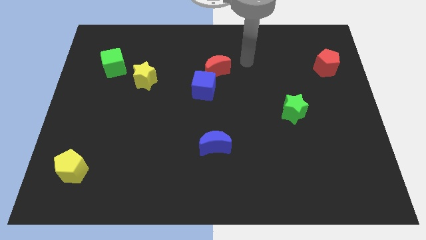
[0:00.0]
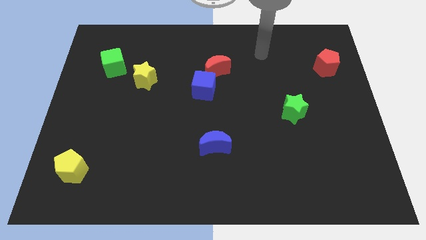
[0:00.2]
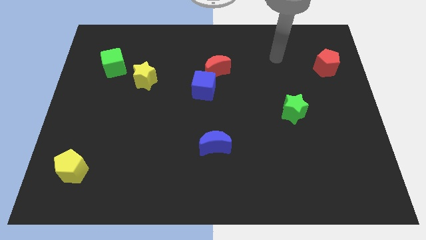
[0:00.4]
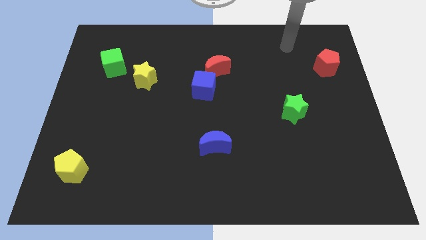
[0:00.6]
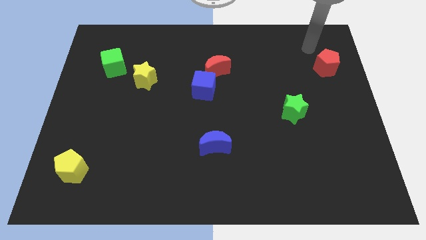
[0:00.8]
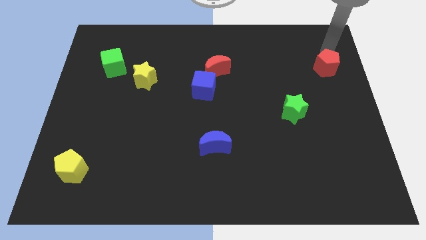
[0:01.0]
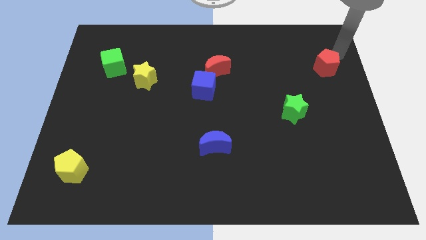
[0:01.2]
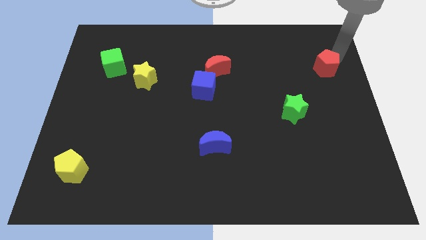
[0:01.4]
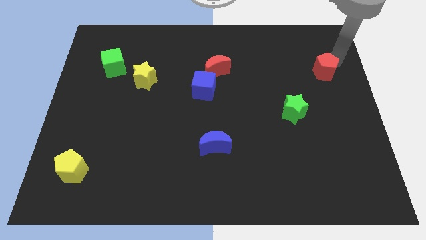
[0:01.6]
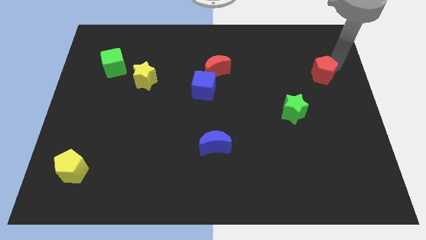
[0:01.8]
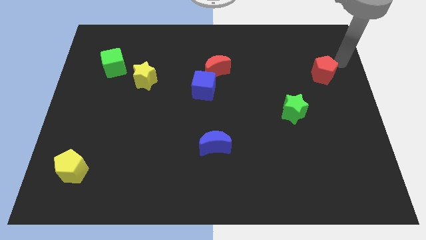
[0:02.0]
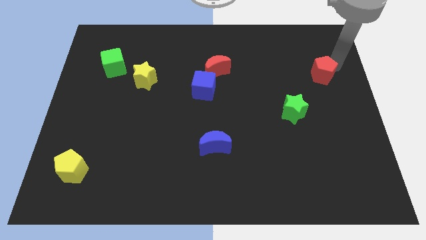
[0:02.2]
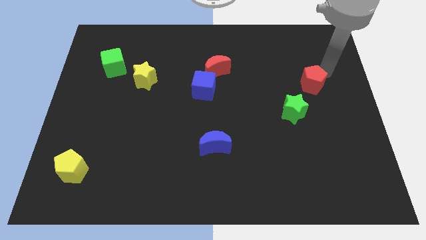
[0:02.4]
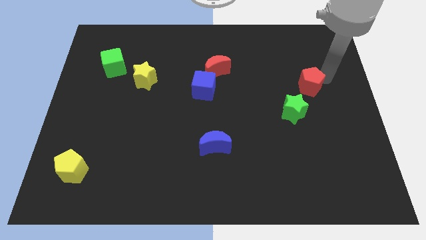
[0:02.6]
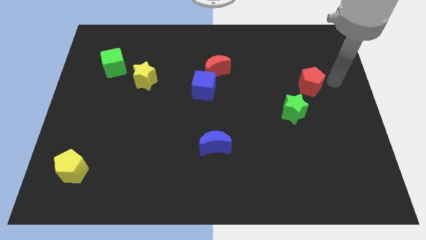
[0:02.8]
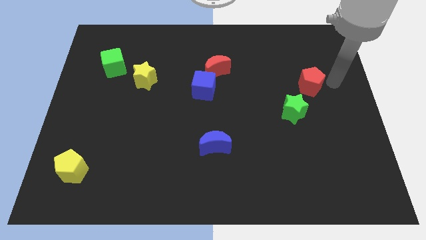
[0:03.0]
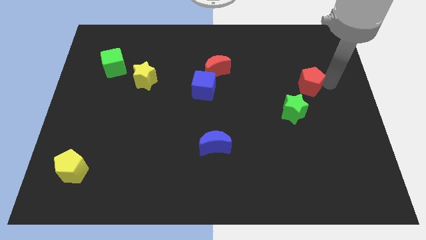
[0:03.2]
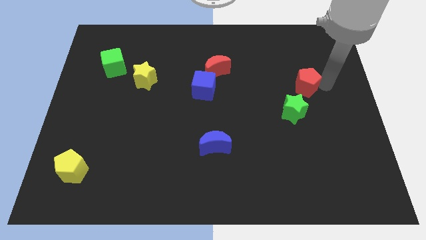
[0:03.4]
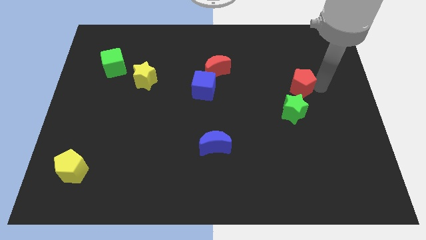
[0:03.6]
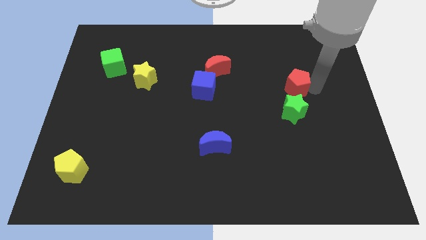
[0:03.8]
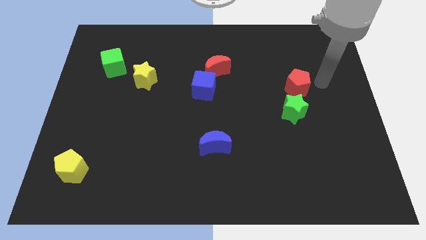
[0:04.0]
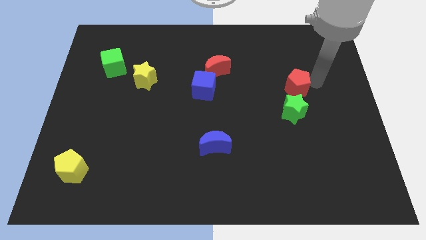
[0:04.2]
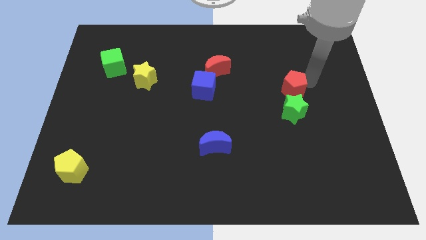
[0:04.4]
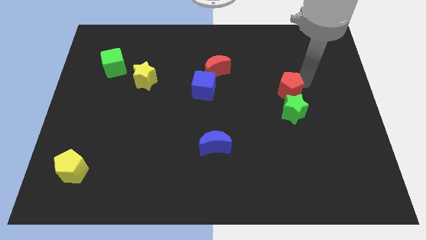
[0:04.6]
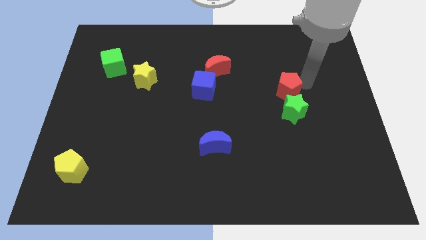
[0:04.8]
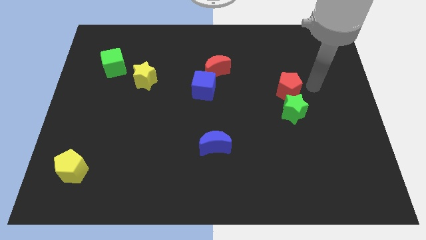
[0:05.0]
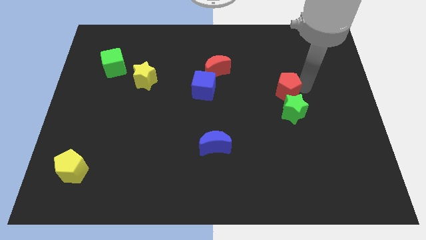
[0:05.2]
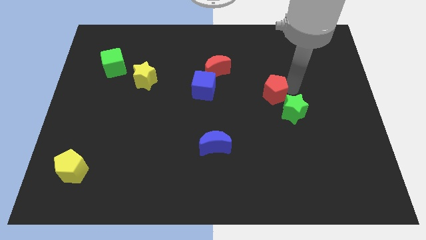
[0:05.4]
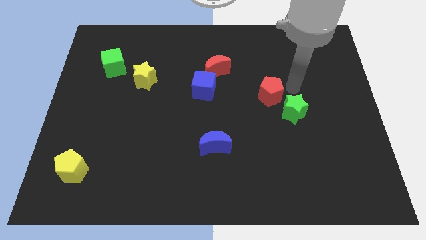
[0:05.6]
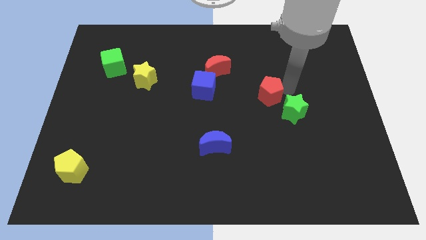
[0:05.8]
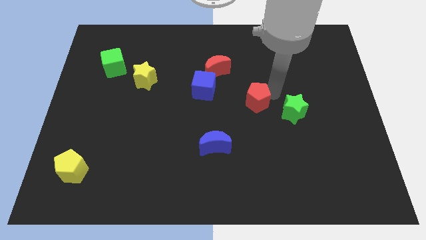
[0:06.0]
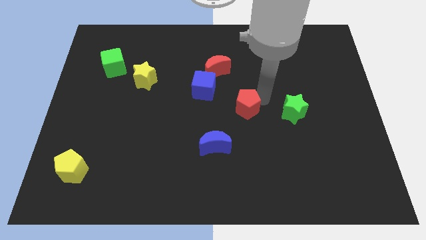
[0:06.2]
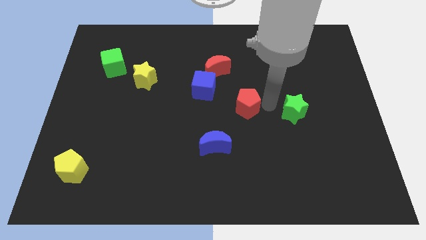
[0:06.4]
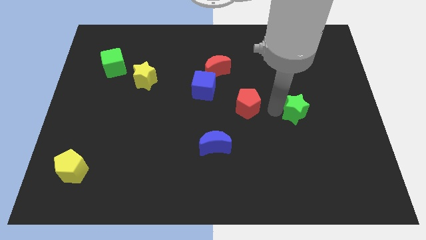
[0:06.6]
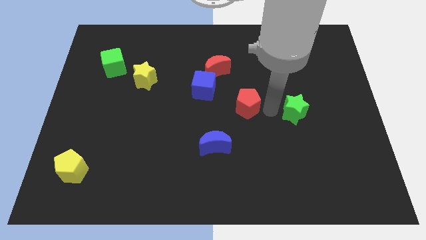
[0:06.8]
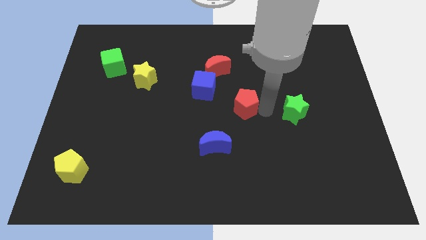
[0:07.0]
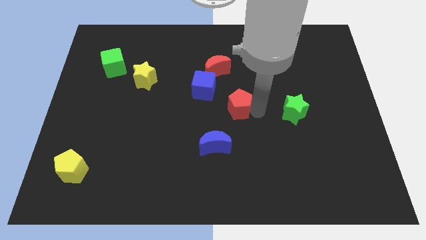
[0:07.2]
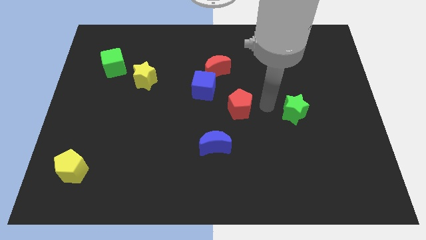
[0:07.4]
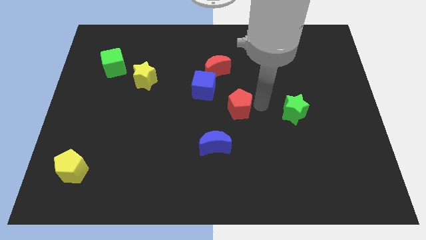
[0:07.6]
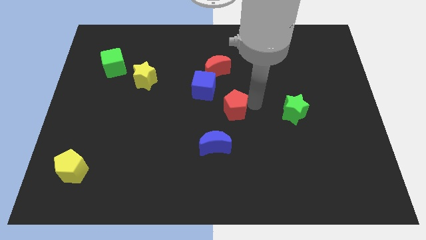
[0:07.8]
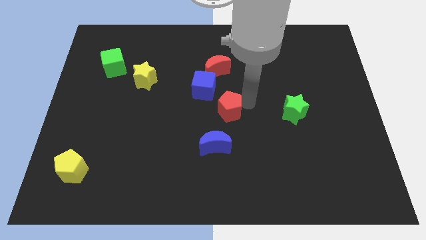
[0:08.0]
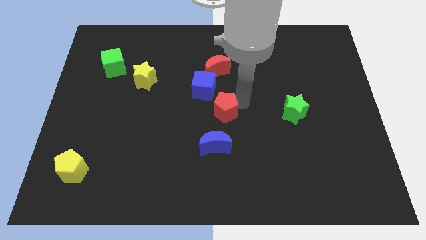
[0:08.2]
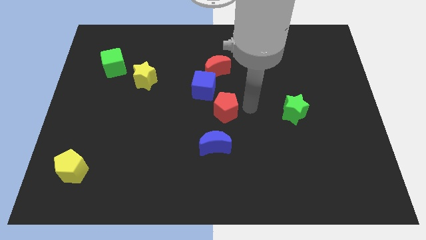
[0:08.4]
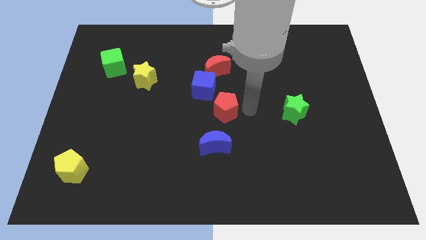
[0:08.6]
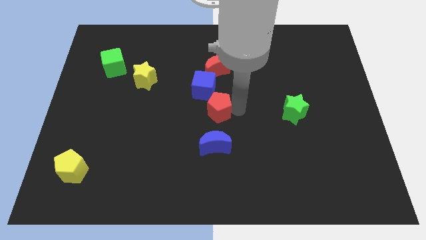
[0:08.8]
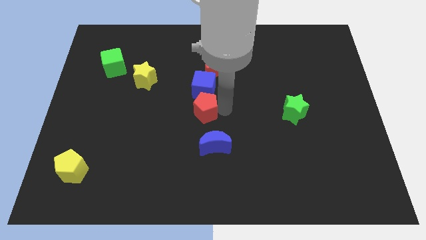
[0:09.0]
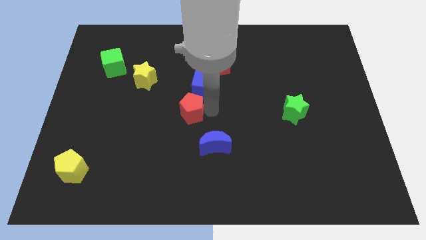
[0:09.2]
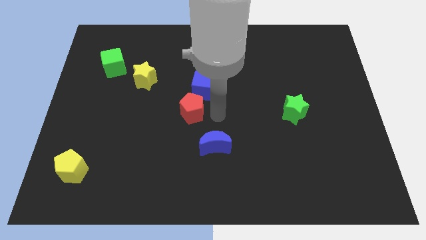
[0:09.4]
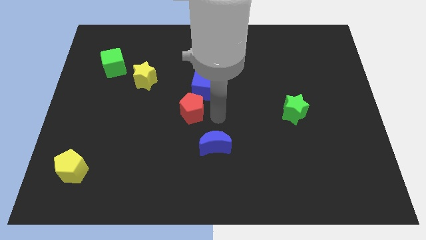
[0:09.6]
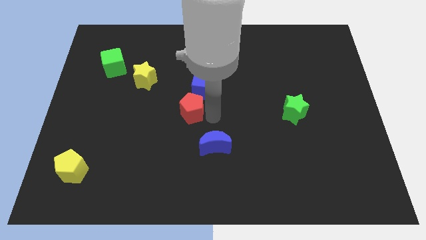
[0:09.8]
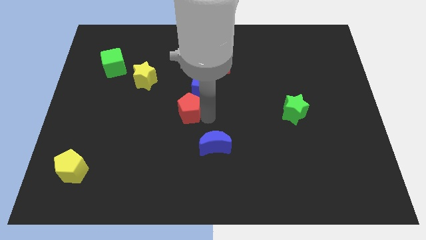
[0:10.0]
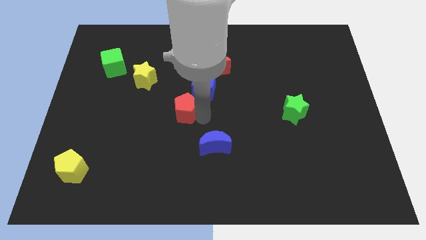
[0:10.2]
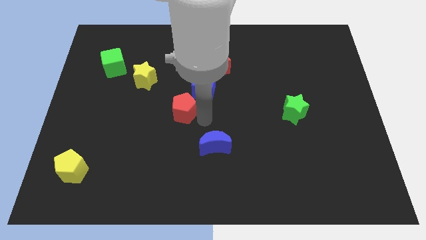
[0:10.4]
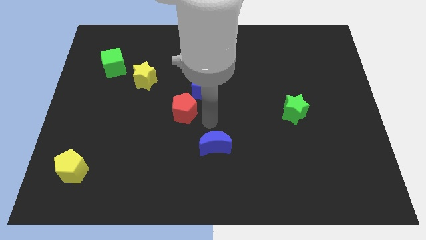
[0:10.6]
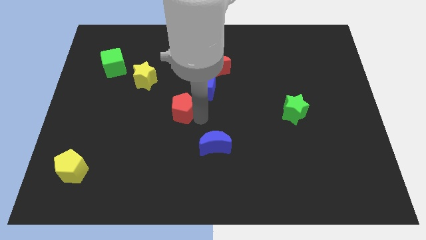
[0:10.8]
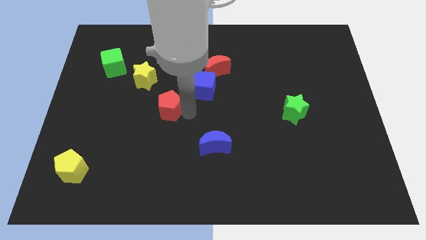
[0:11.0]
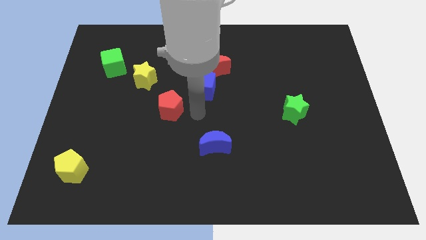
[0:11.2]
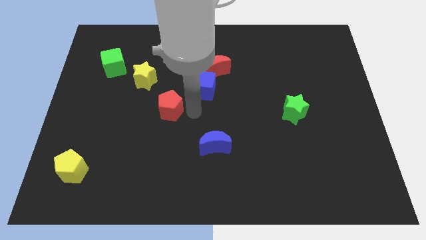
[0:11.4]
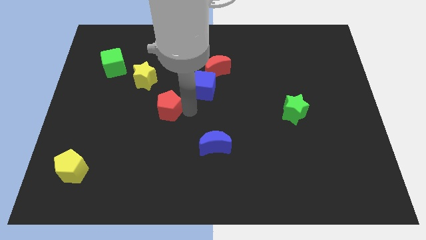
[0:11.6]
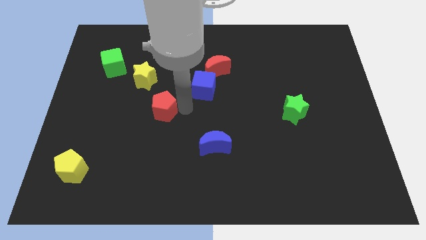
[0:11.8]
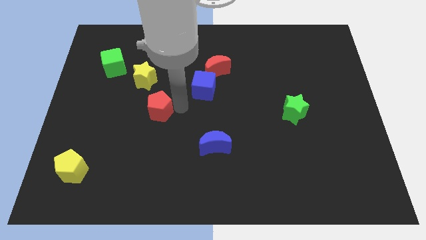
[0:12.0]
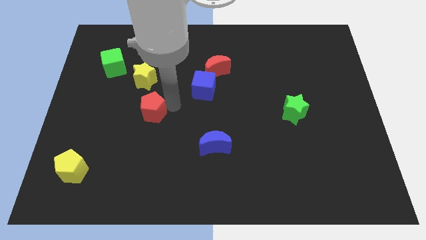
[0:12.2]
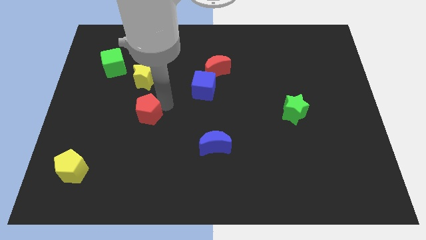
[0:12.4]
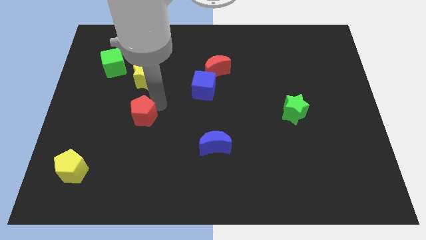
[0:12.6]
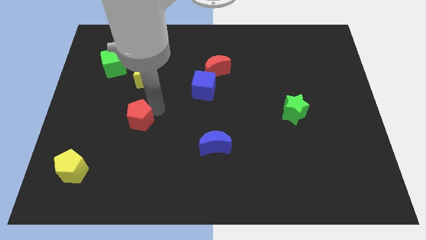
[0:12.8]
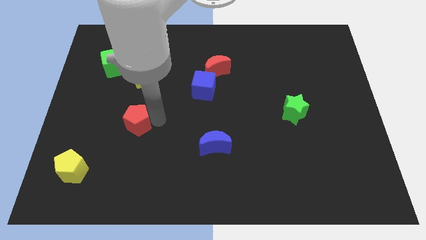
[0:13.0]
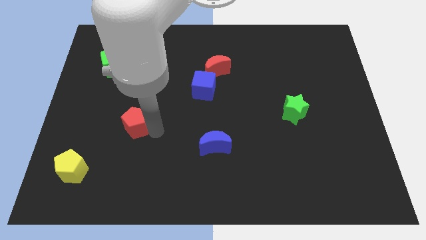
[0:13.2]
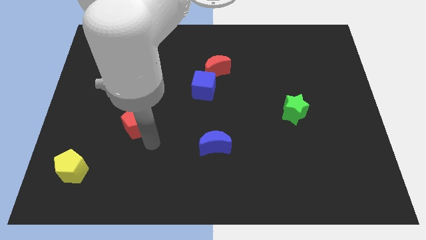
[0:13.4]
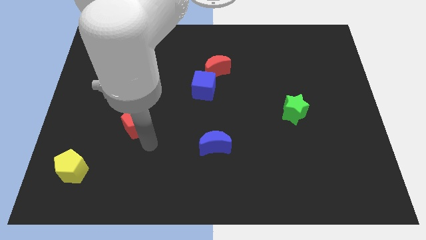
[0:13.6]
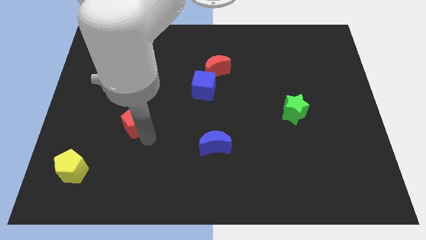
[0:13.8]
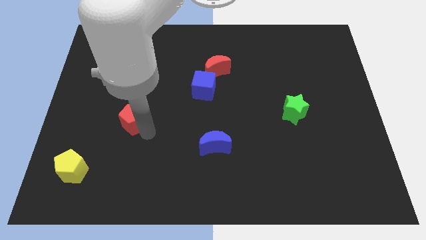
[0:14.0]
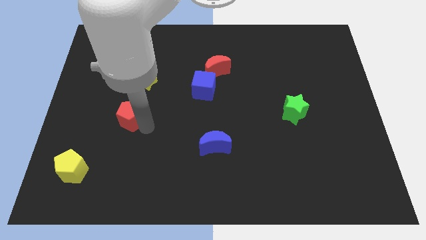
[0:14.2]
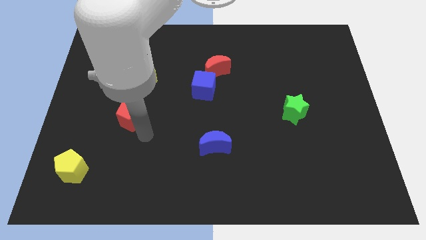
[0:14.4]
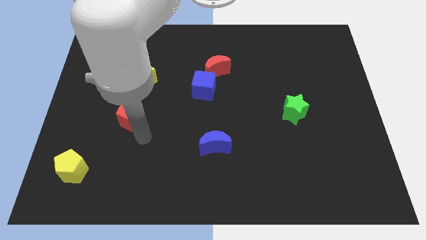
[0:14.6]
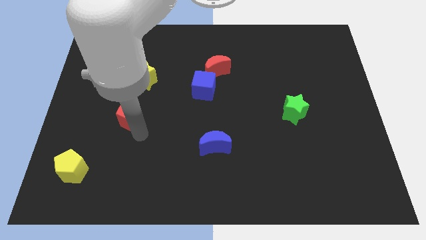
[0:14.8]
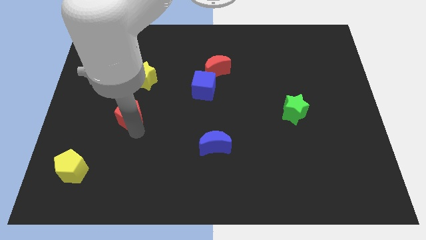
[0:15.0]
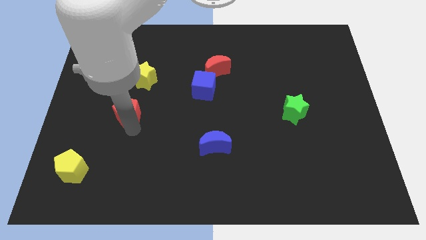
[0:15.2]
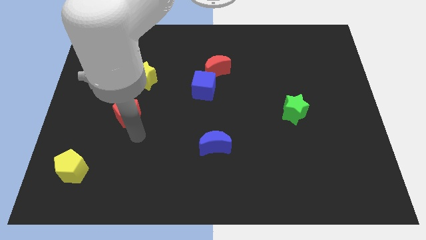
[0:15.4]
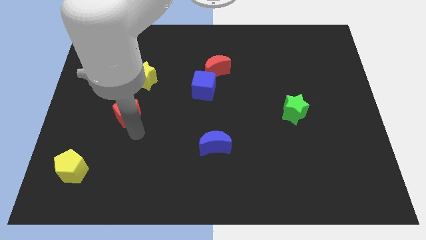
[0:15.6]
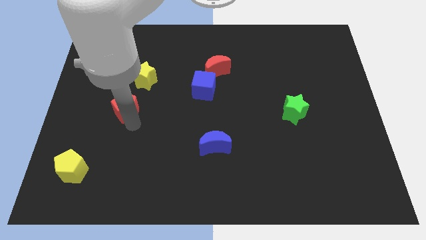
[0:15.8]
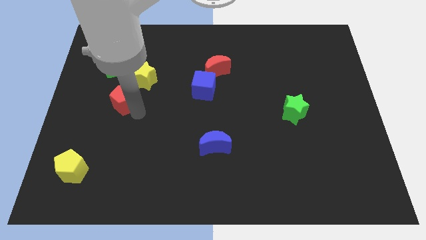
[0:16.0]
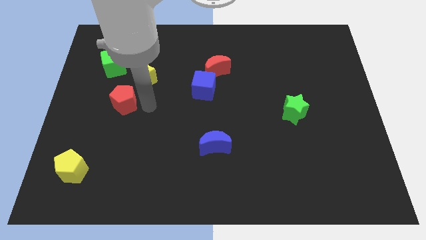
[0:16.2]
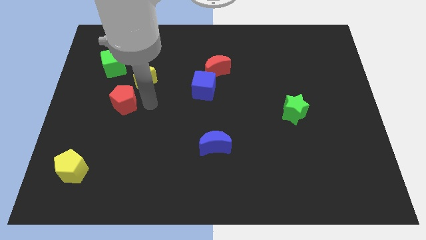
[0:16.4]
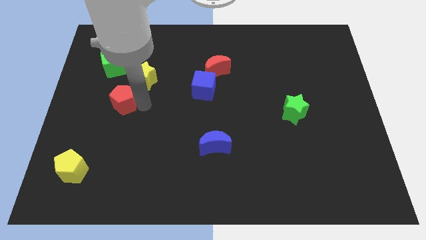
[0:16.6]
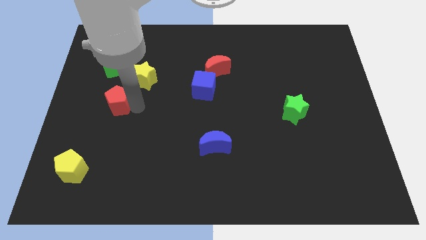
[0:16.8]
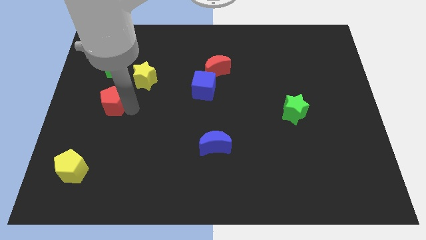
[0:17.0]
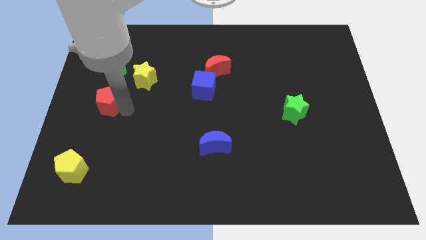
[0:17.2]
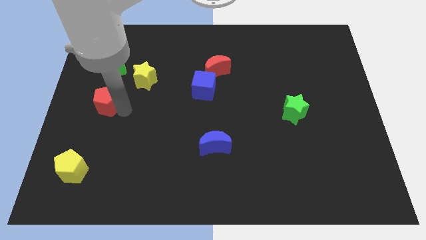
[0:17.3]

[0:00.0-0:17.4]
slide the red pentagon to the left side
